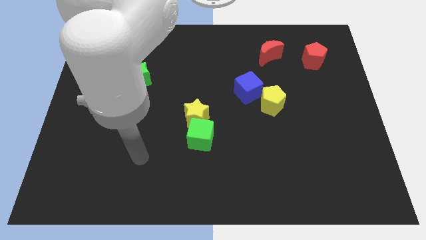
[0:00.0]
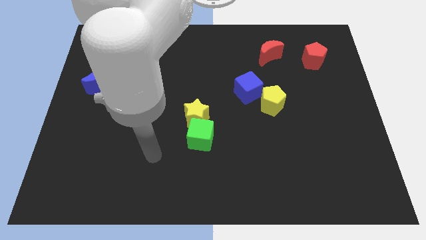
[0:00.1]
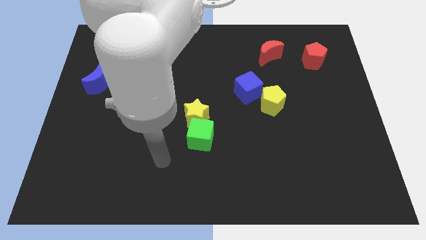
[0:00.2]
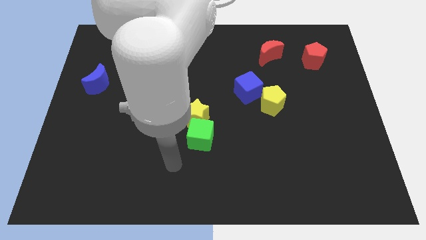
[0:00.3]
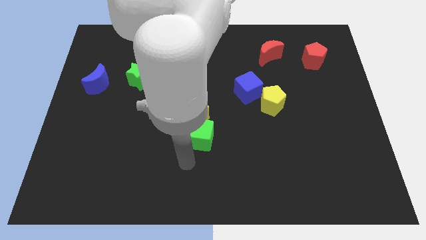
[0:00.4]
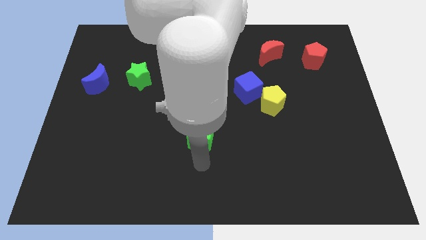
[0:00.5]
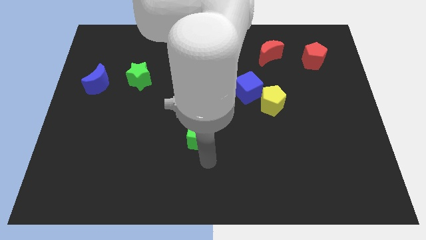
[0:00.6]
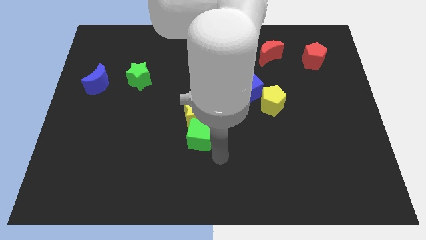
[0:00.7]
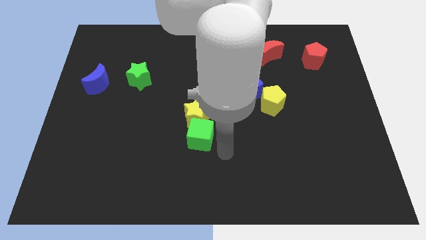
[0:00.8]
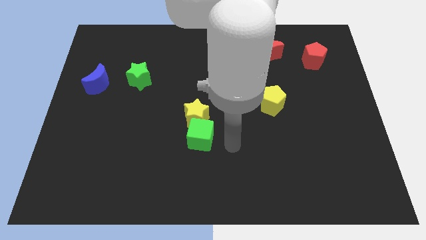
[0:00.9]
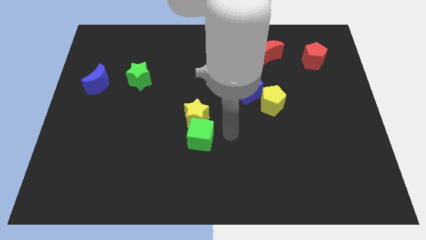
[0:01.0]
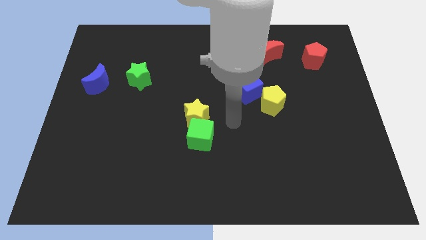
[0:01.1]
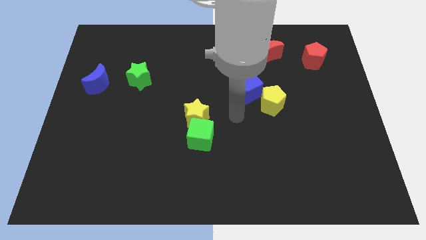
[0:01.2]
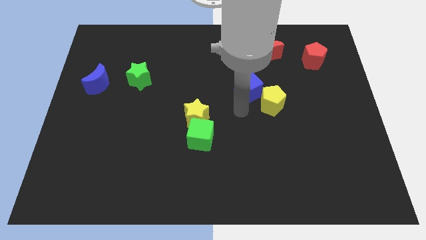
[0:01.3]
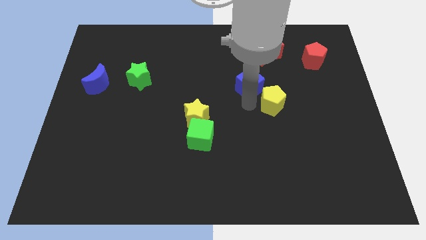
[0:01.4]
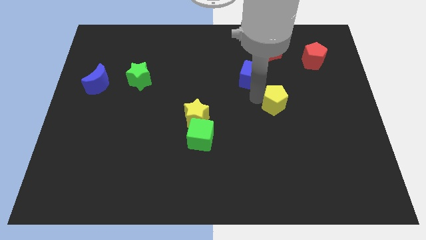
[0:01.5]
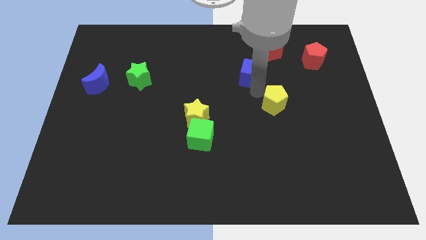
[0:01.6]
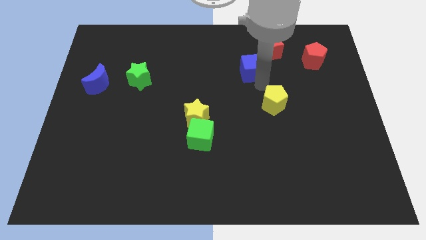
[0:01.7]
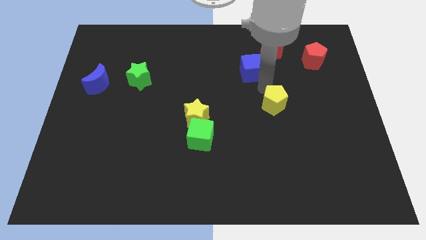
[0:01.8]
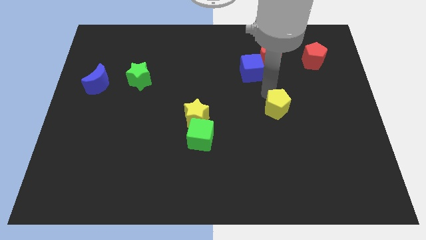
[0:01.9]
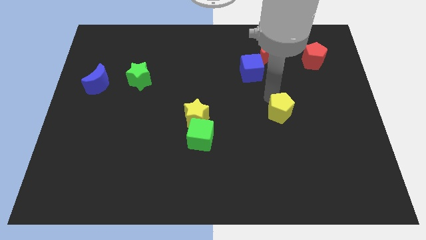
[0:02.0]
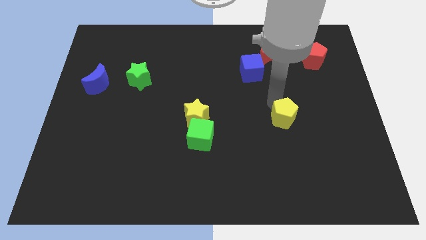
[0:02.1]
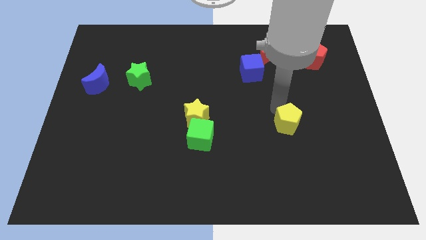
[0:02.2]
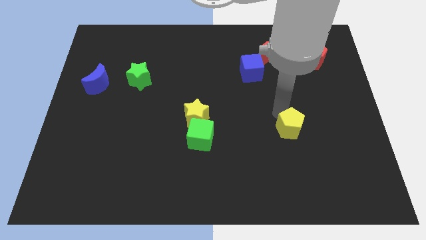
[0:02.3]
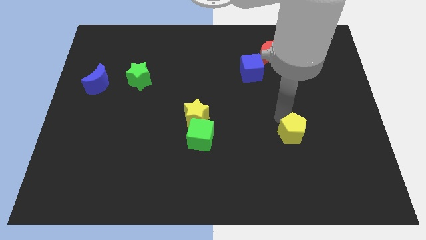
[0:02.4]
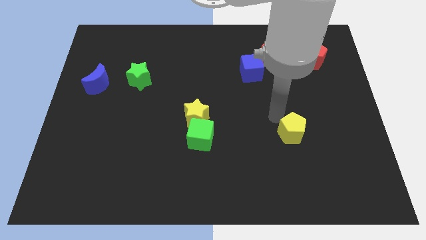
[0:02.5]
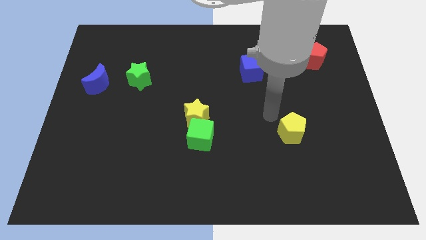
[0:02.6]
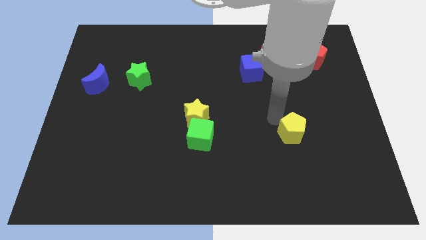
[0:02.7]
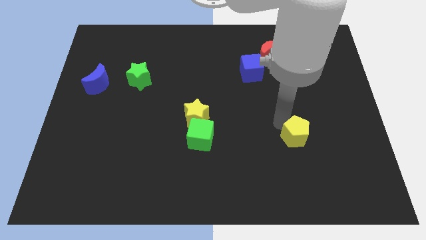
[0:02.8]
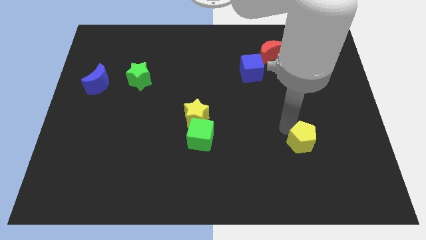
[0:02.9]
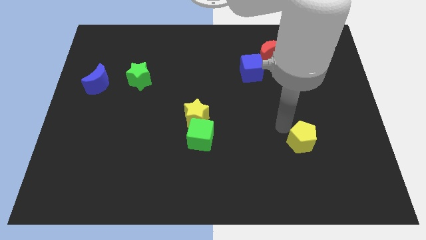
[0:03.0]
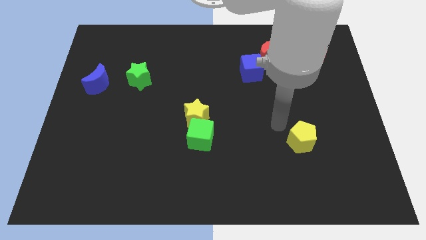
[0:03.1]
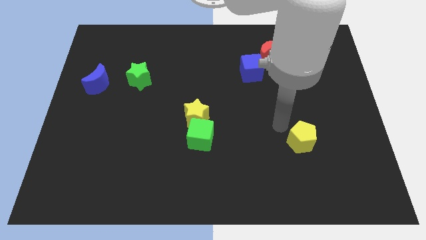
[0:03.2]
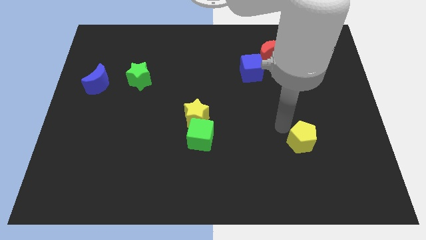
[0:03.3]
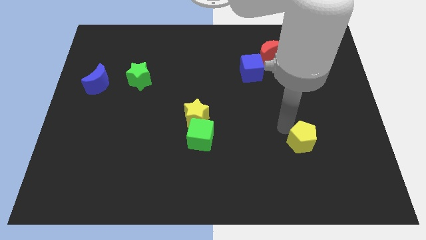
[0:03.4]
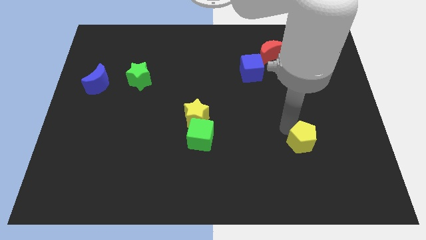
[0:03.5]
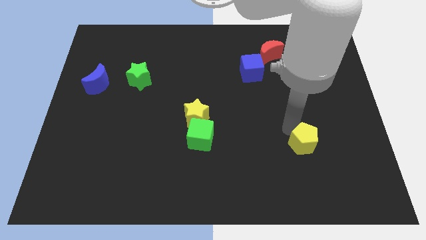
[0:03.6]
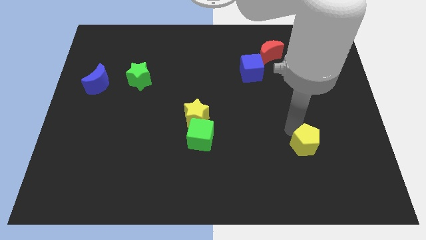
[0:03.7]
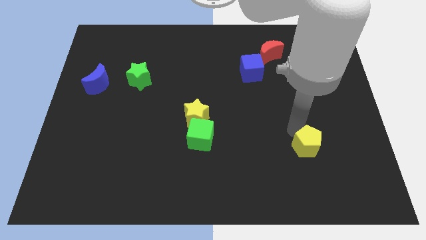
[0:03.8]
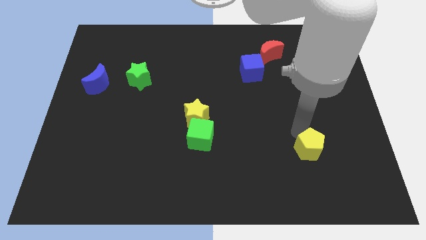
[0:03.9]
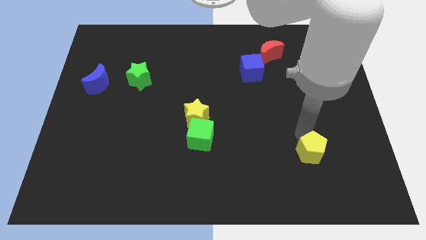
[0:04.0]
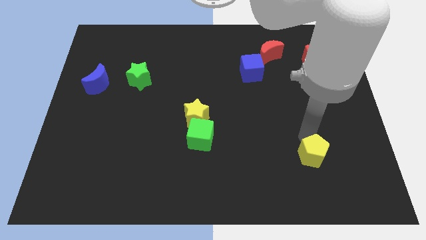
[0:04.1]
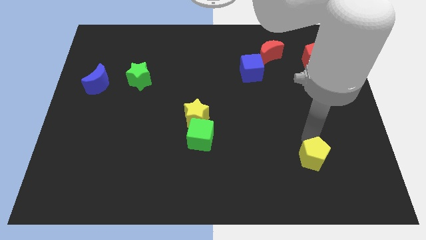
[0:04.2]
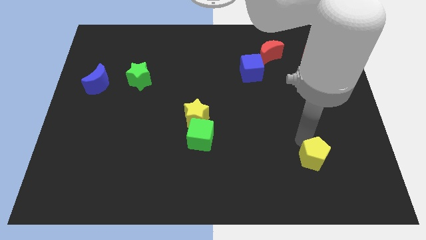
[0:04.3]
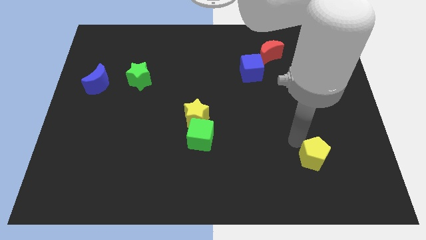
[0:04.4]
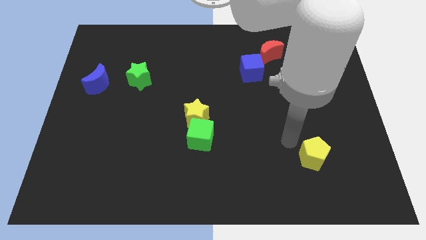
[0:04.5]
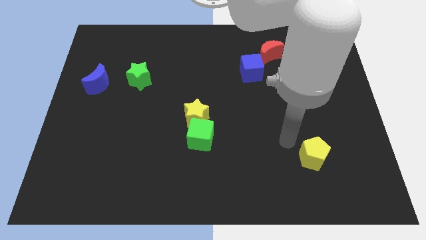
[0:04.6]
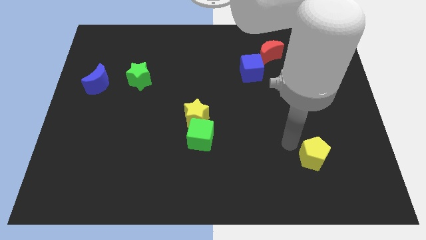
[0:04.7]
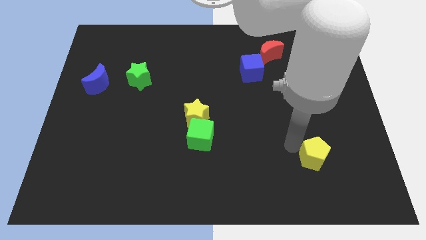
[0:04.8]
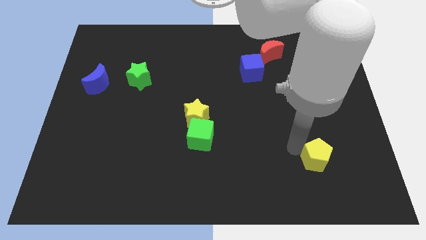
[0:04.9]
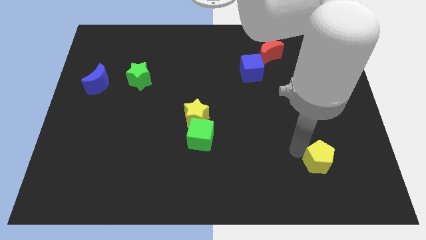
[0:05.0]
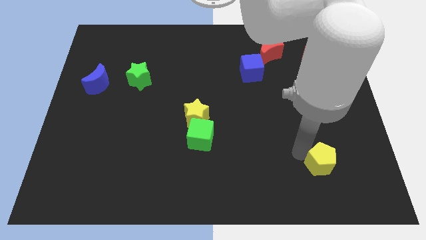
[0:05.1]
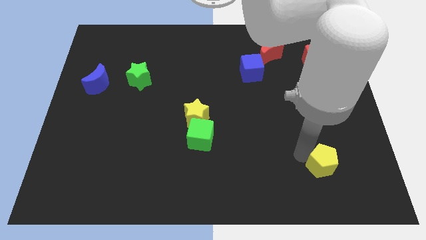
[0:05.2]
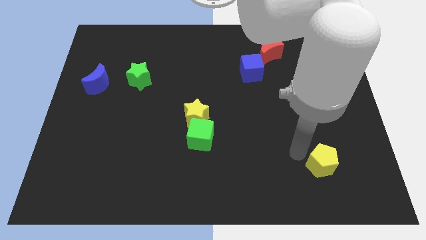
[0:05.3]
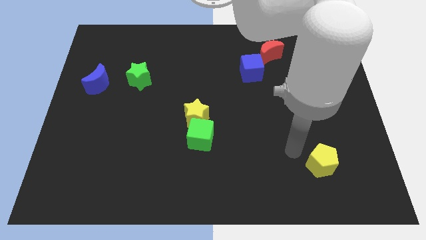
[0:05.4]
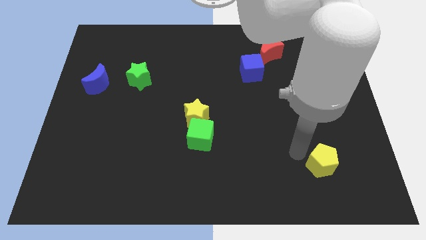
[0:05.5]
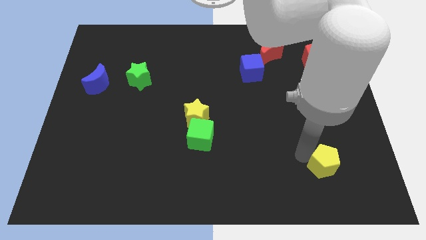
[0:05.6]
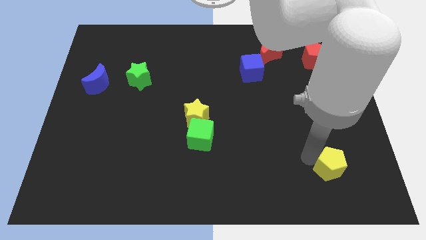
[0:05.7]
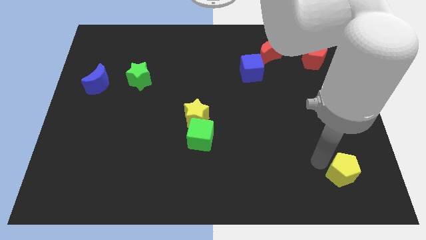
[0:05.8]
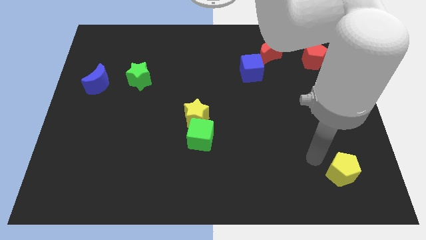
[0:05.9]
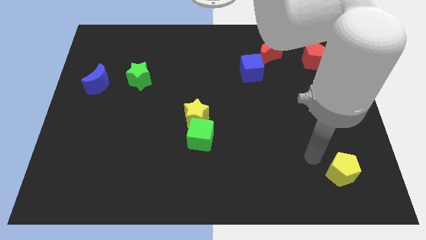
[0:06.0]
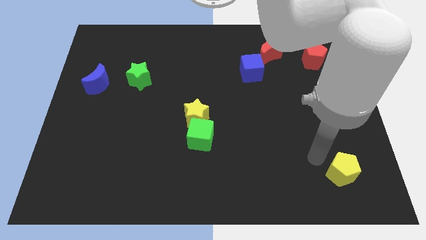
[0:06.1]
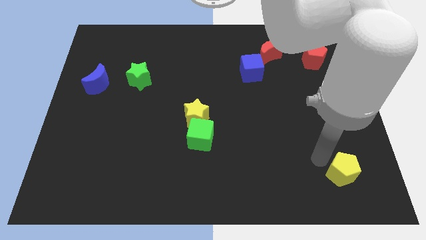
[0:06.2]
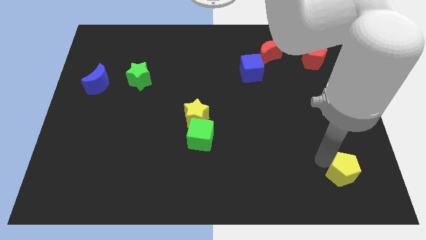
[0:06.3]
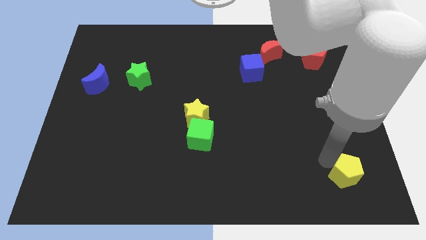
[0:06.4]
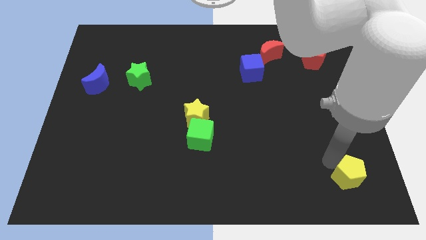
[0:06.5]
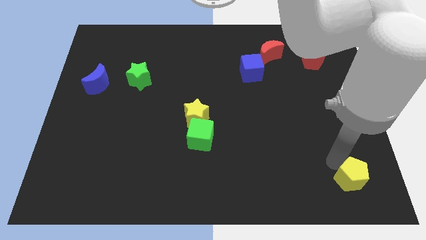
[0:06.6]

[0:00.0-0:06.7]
slide the yellow pentagon to the bottom right corner

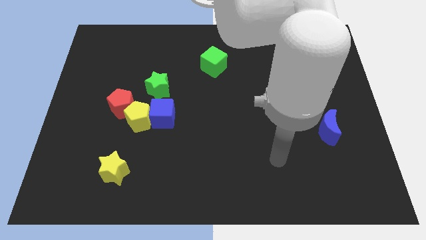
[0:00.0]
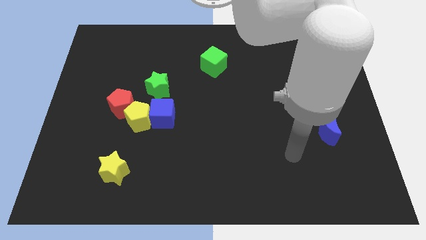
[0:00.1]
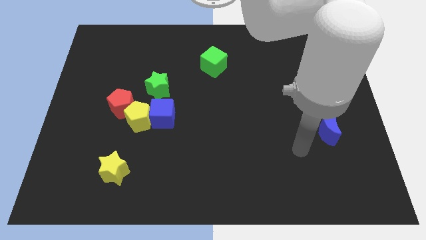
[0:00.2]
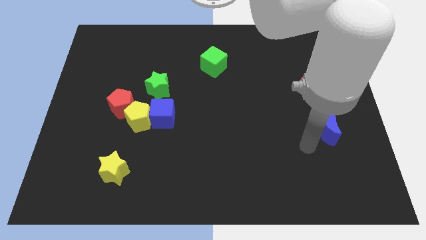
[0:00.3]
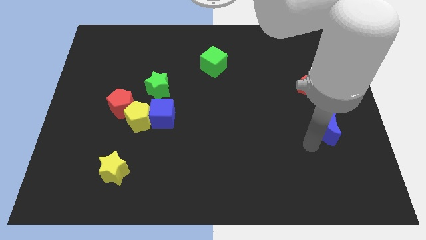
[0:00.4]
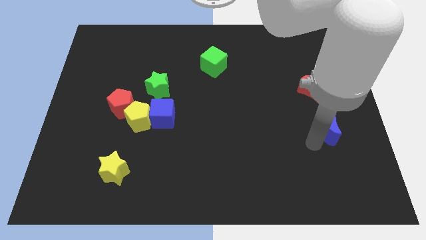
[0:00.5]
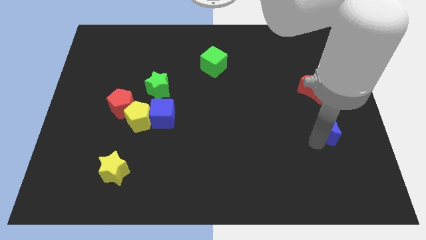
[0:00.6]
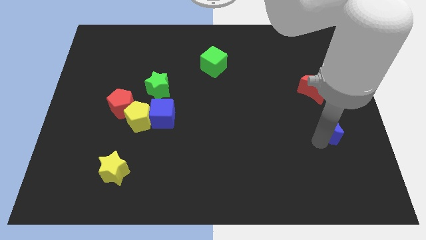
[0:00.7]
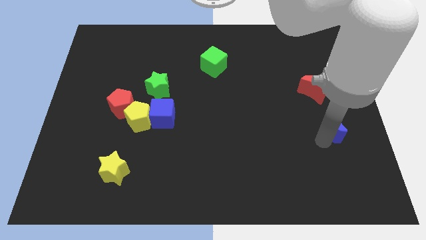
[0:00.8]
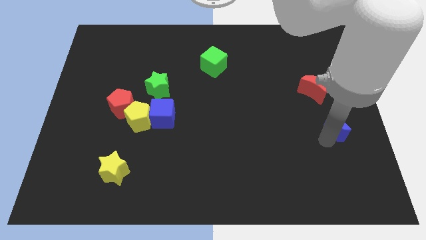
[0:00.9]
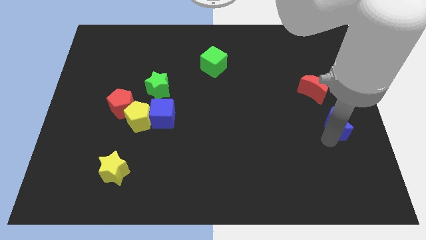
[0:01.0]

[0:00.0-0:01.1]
put the blue moon to the right side
